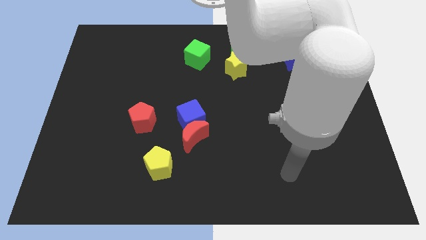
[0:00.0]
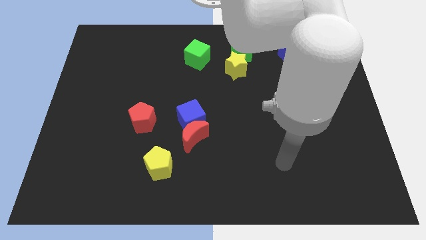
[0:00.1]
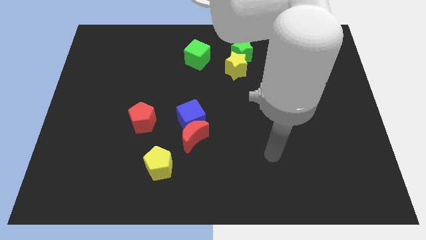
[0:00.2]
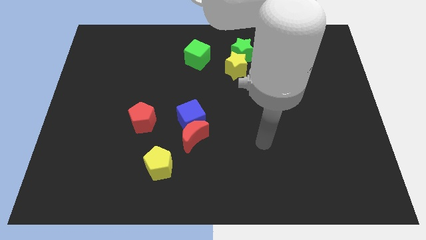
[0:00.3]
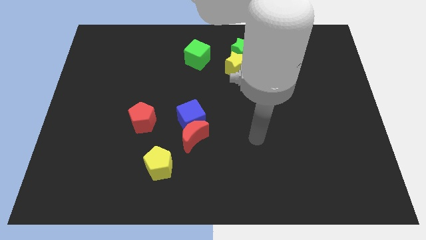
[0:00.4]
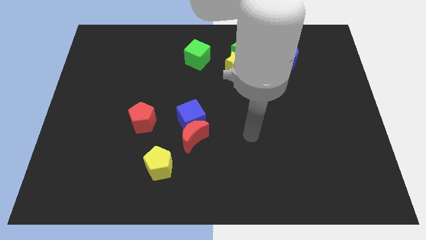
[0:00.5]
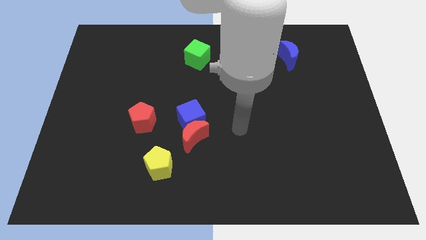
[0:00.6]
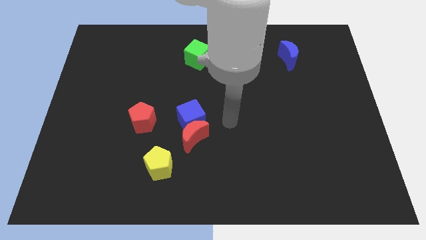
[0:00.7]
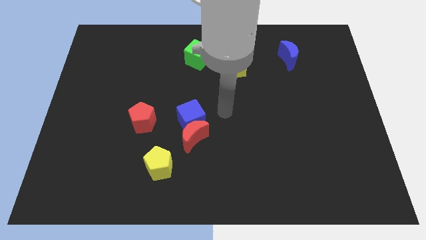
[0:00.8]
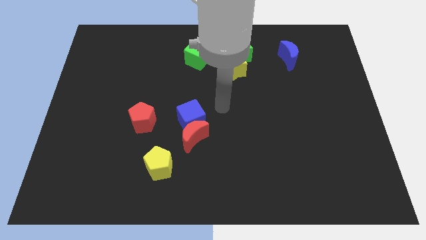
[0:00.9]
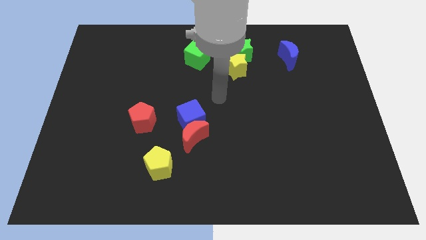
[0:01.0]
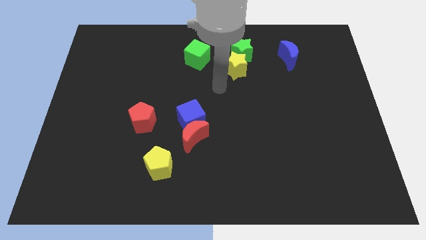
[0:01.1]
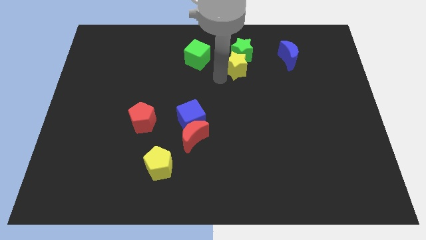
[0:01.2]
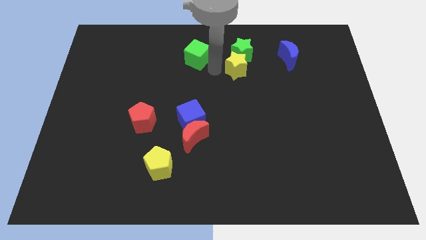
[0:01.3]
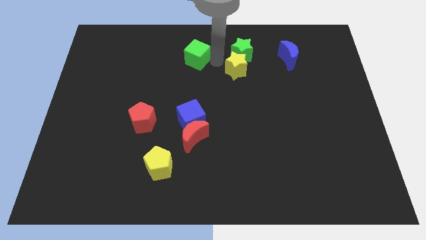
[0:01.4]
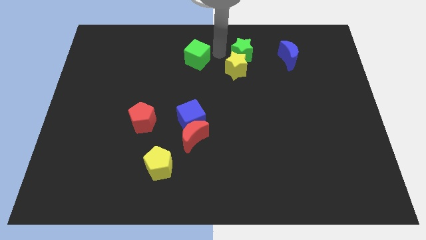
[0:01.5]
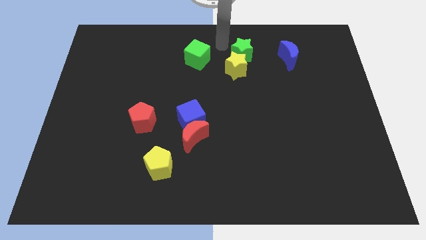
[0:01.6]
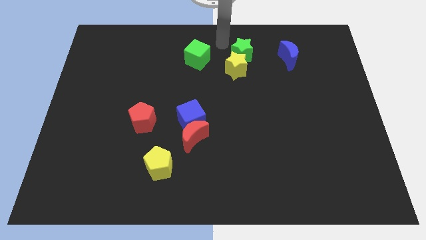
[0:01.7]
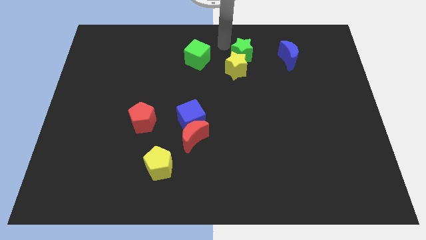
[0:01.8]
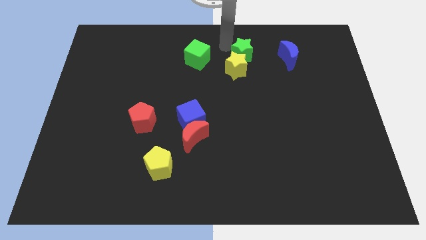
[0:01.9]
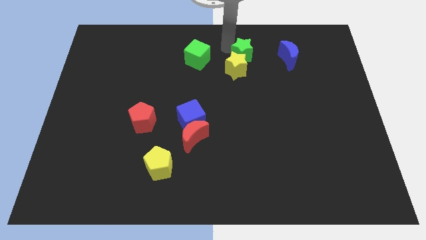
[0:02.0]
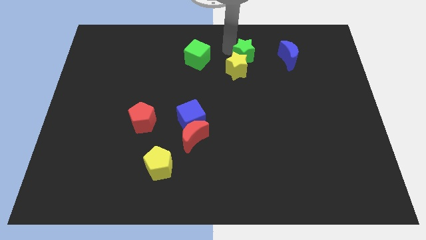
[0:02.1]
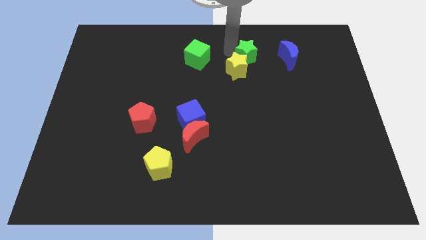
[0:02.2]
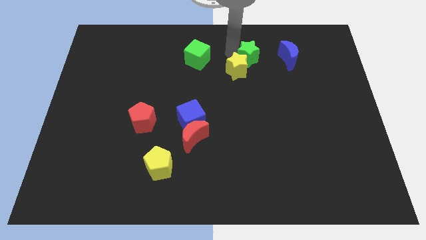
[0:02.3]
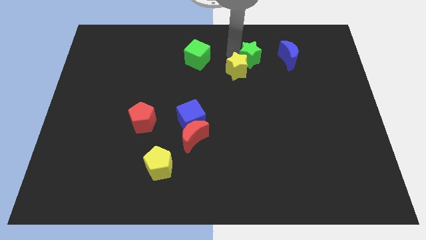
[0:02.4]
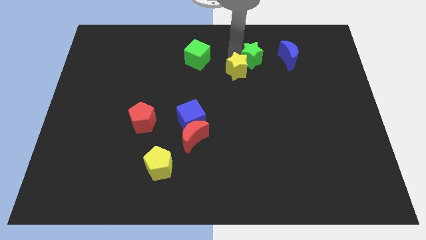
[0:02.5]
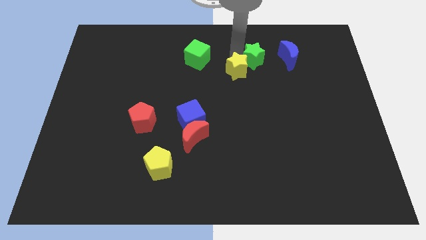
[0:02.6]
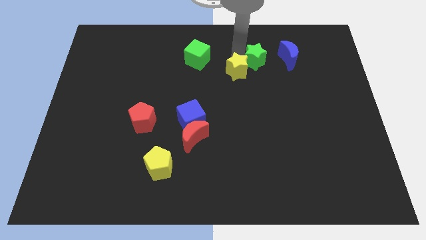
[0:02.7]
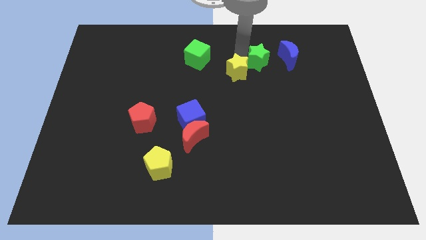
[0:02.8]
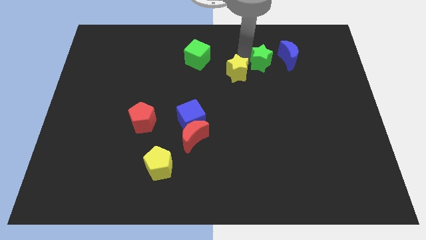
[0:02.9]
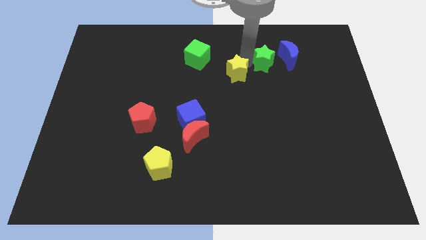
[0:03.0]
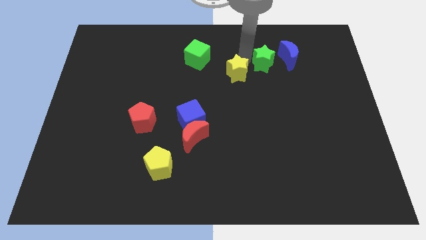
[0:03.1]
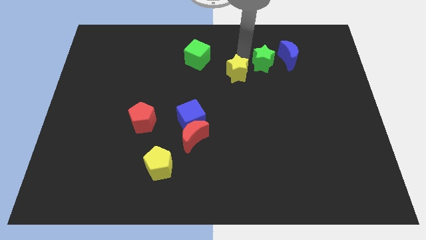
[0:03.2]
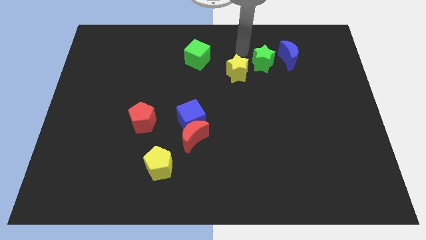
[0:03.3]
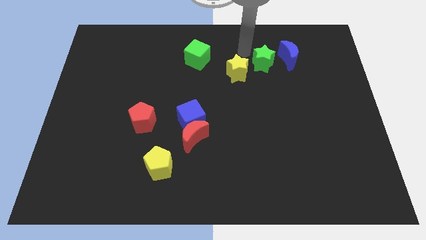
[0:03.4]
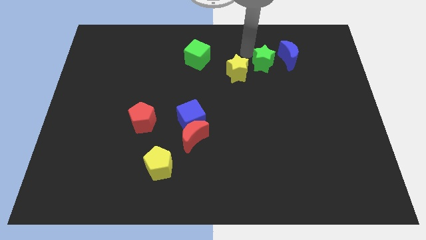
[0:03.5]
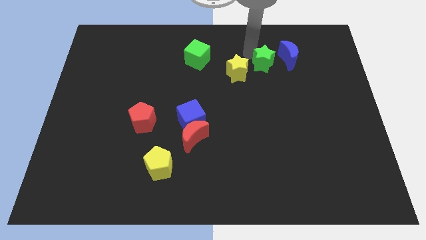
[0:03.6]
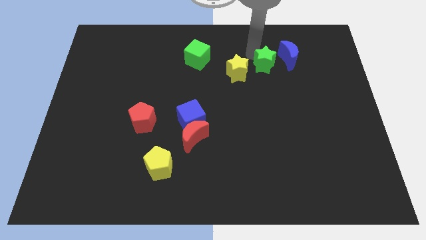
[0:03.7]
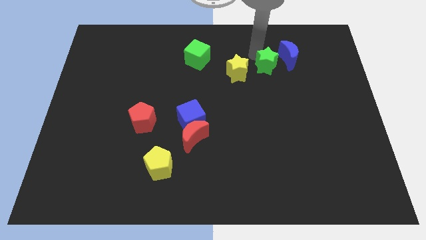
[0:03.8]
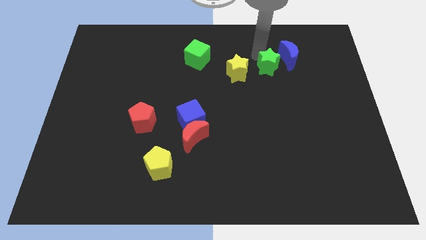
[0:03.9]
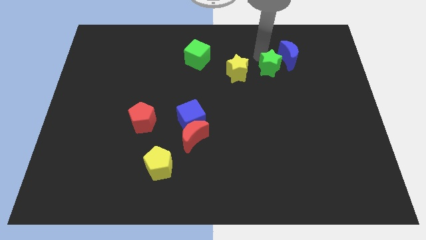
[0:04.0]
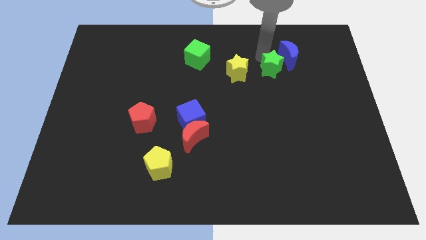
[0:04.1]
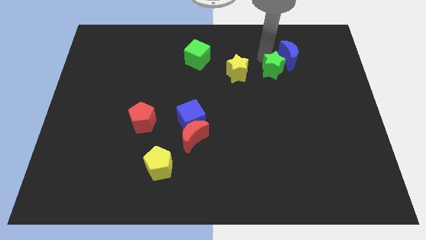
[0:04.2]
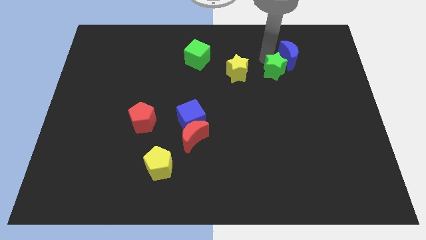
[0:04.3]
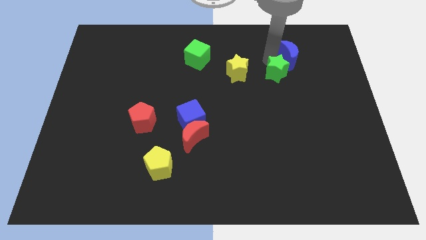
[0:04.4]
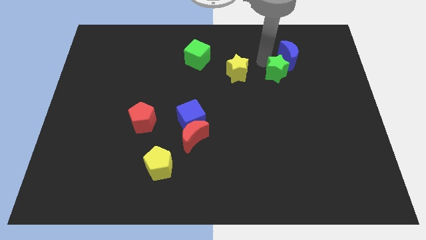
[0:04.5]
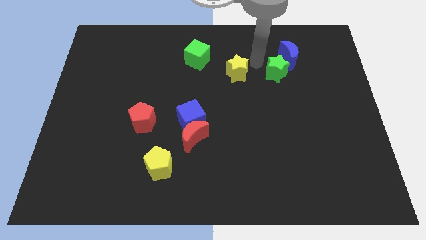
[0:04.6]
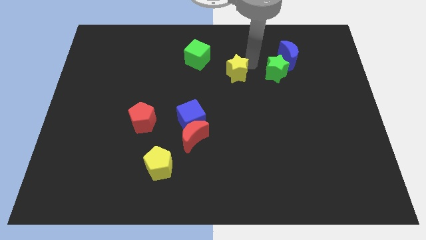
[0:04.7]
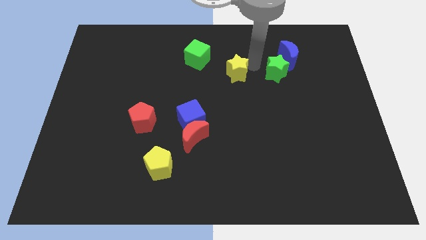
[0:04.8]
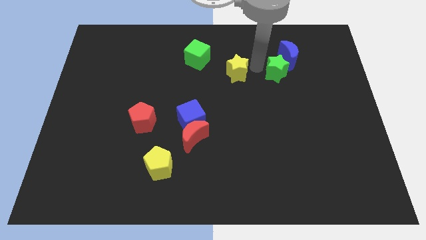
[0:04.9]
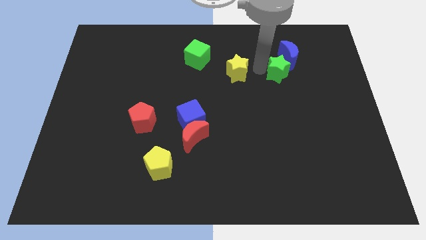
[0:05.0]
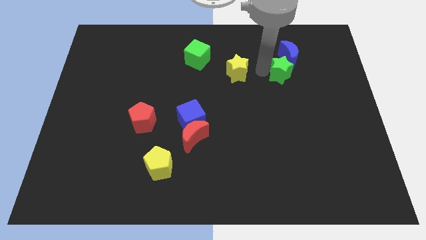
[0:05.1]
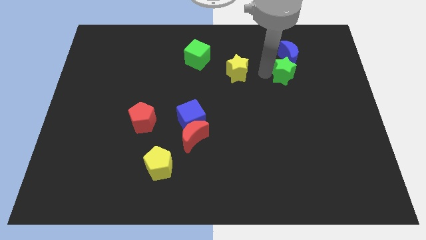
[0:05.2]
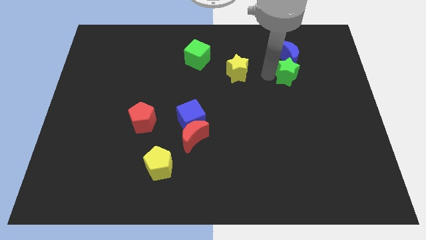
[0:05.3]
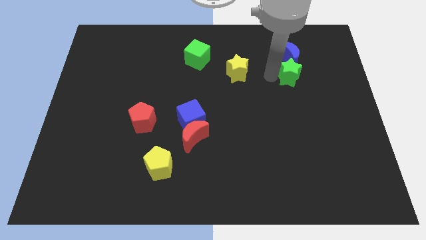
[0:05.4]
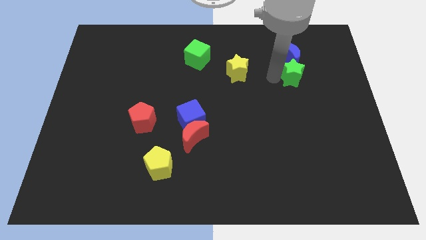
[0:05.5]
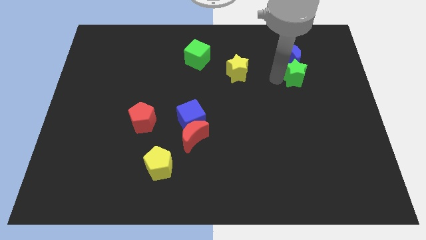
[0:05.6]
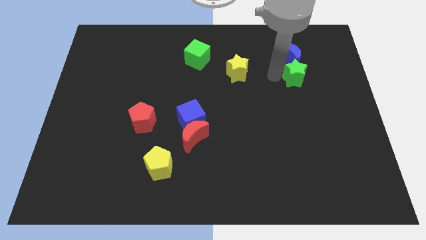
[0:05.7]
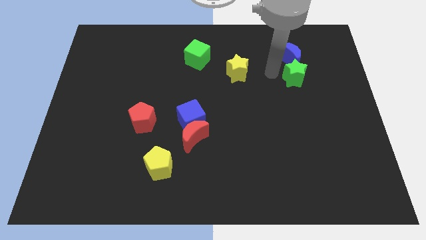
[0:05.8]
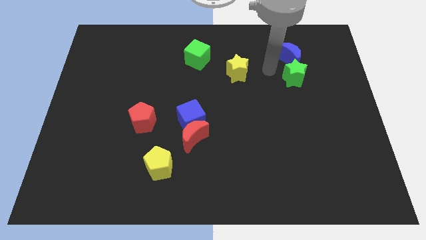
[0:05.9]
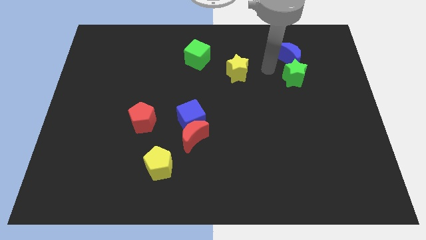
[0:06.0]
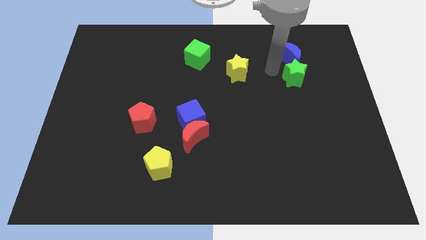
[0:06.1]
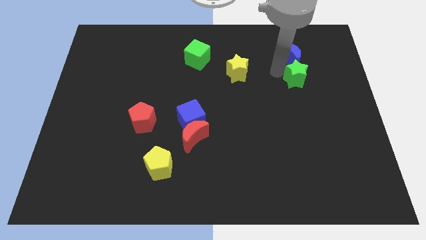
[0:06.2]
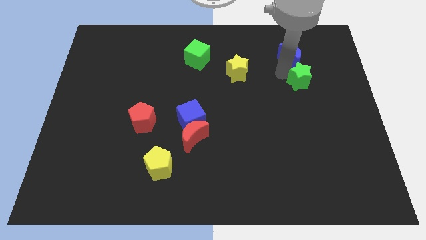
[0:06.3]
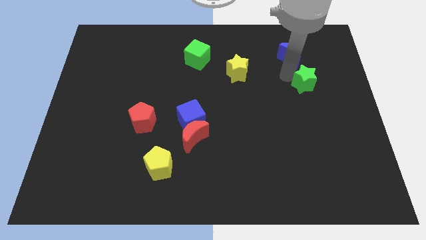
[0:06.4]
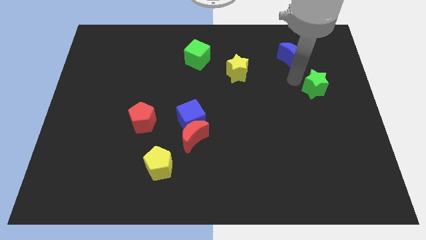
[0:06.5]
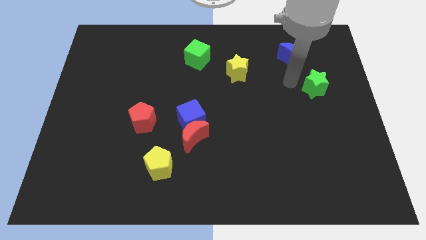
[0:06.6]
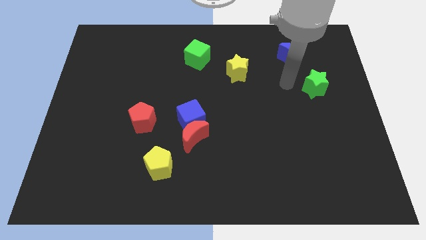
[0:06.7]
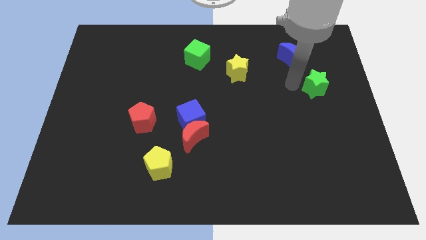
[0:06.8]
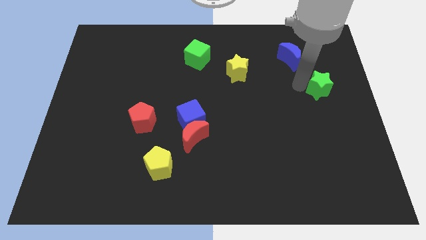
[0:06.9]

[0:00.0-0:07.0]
slide the green star to the center right
